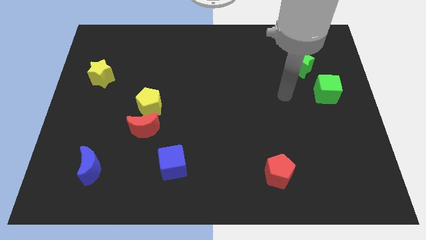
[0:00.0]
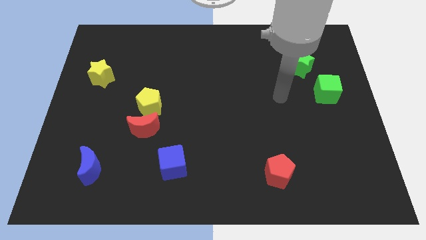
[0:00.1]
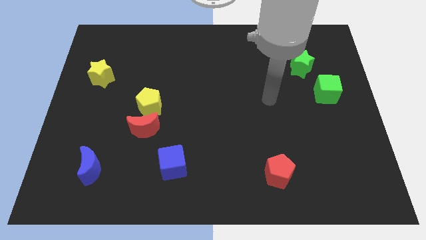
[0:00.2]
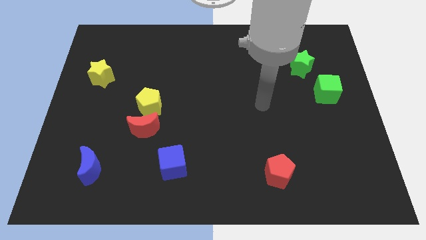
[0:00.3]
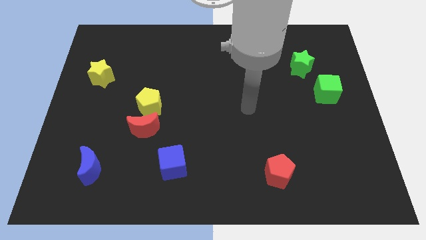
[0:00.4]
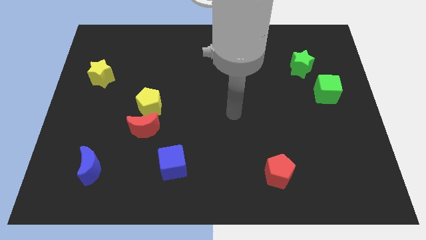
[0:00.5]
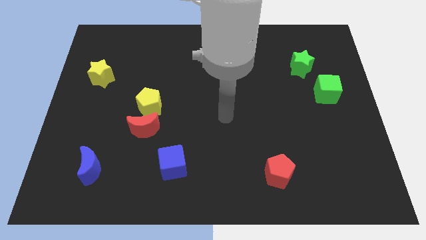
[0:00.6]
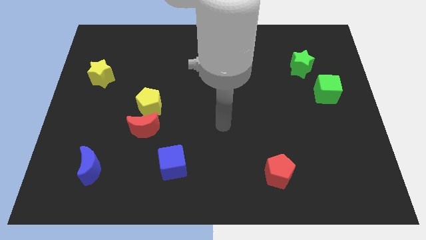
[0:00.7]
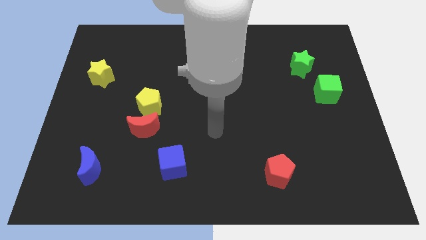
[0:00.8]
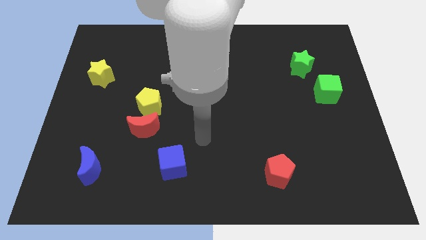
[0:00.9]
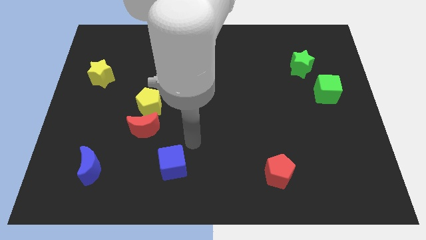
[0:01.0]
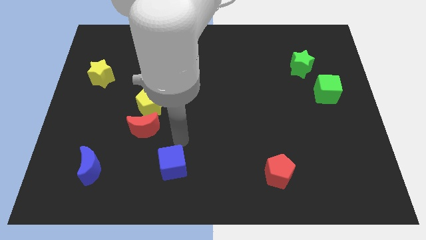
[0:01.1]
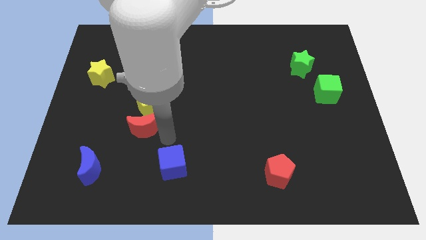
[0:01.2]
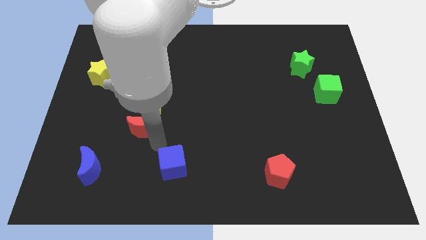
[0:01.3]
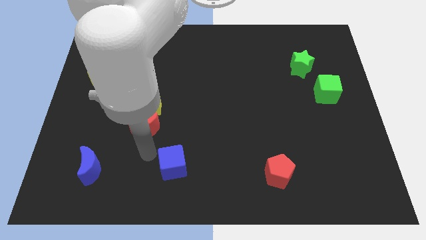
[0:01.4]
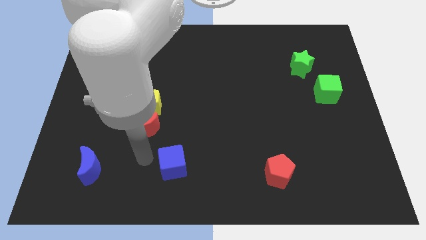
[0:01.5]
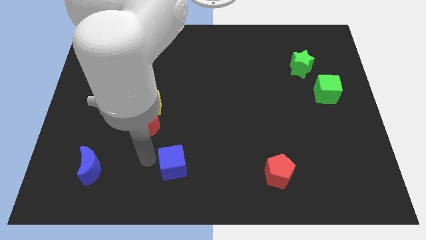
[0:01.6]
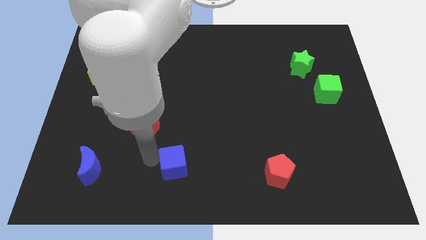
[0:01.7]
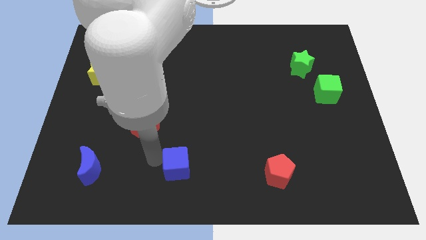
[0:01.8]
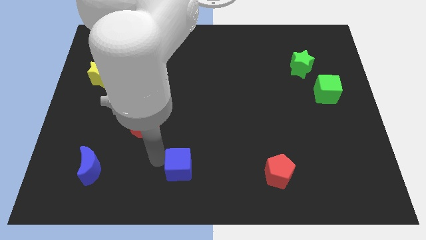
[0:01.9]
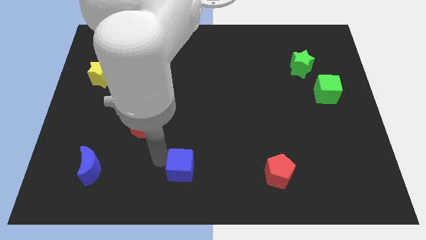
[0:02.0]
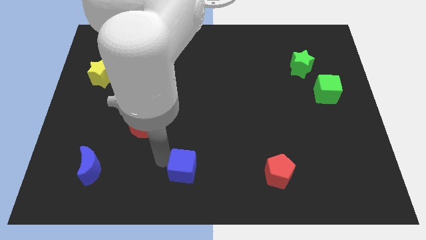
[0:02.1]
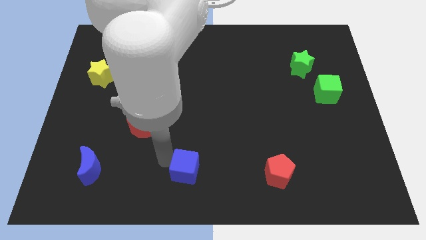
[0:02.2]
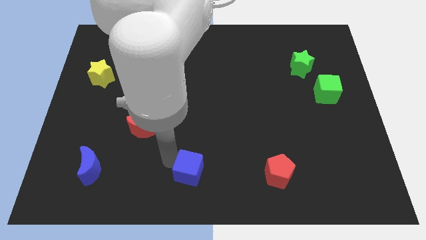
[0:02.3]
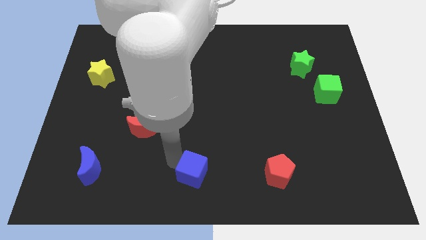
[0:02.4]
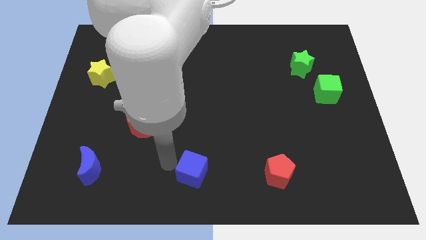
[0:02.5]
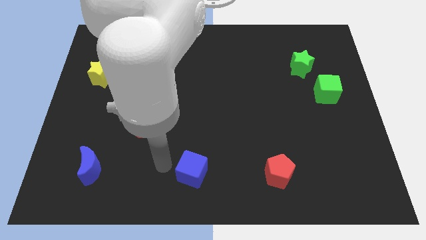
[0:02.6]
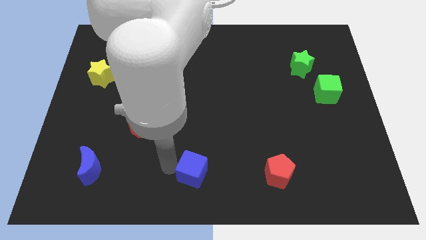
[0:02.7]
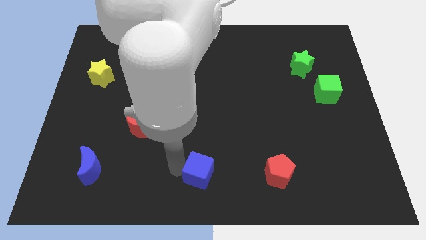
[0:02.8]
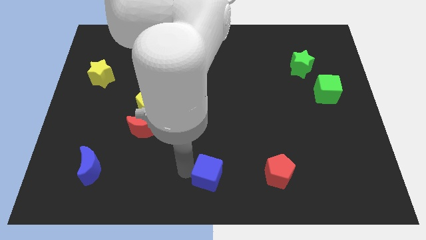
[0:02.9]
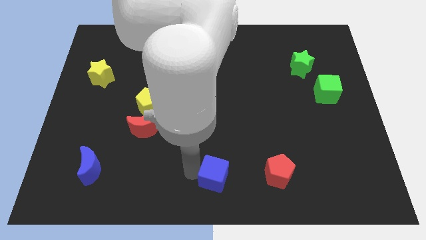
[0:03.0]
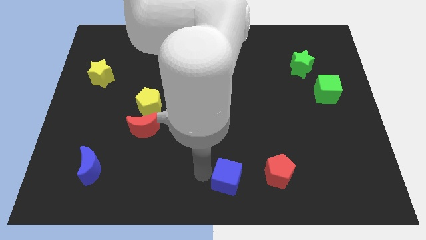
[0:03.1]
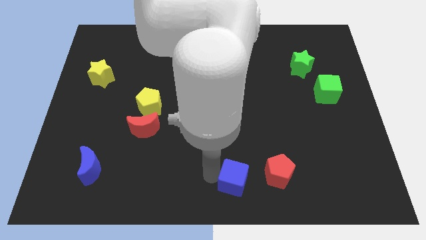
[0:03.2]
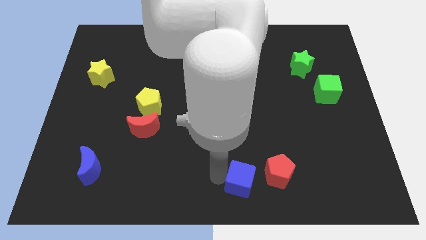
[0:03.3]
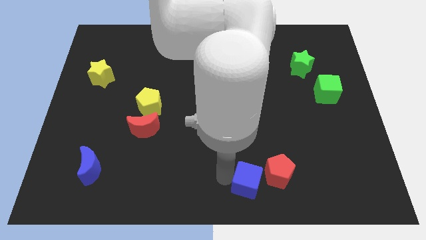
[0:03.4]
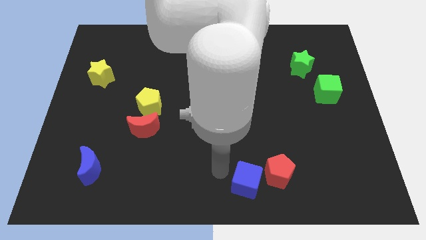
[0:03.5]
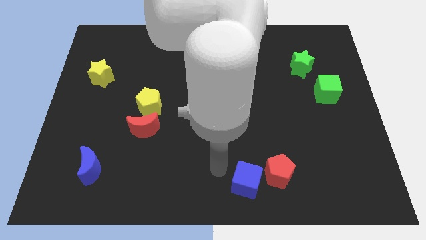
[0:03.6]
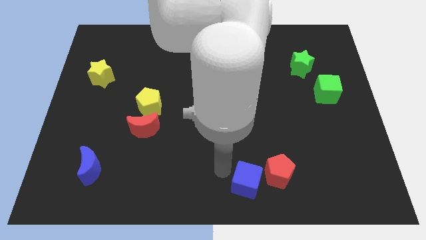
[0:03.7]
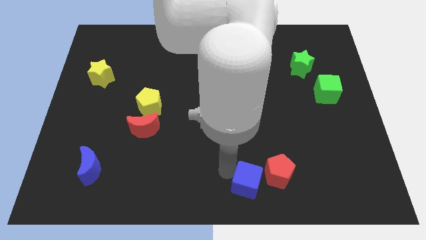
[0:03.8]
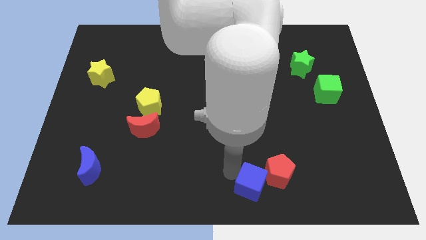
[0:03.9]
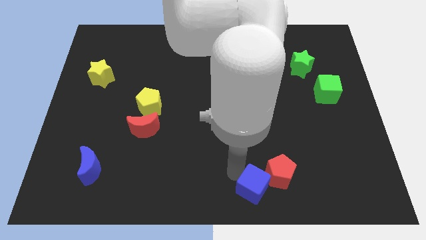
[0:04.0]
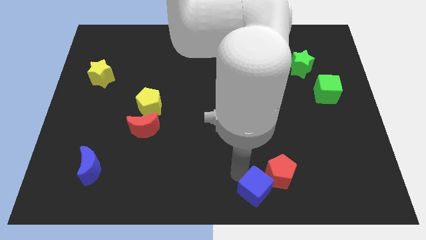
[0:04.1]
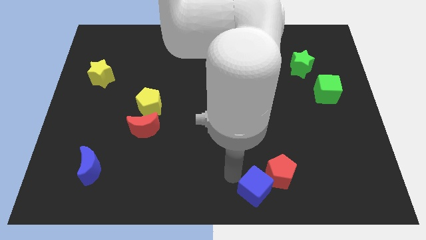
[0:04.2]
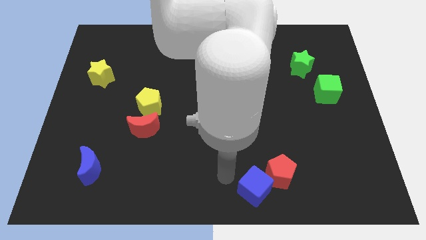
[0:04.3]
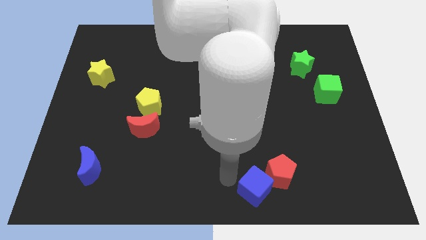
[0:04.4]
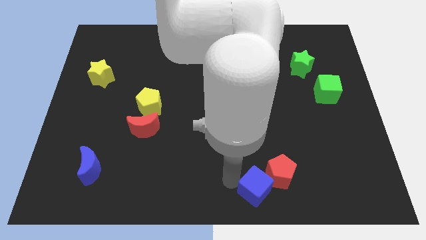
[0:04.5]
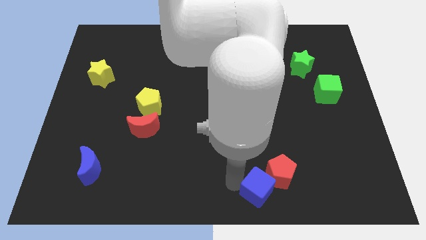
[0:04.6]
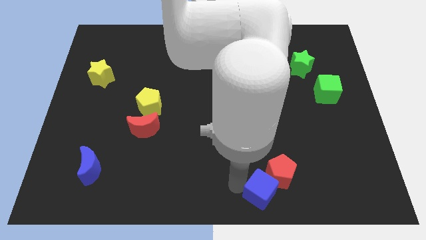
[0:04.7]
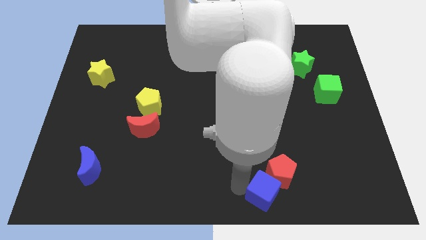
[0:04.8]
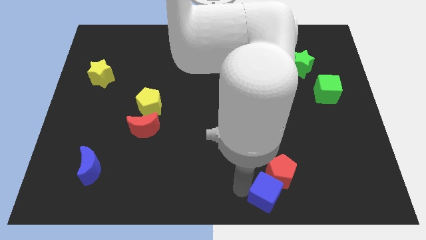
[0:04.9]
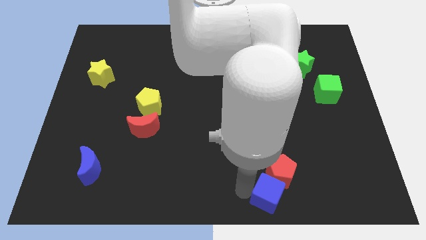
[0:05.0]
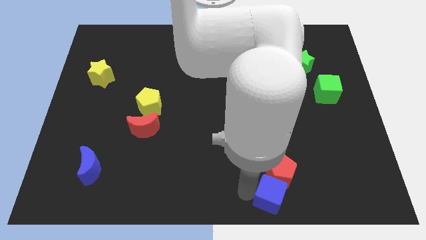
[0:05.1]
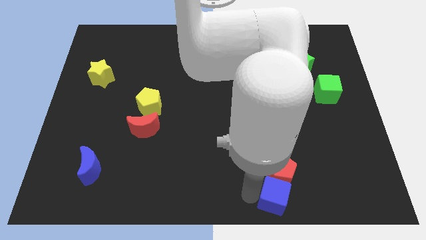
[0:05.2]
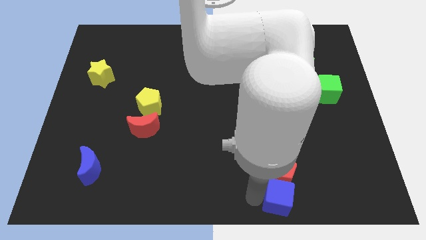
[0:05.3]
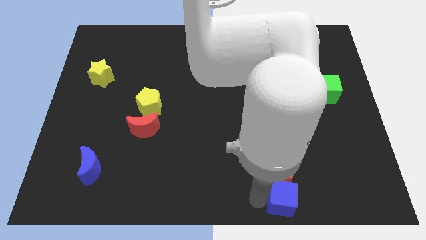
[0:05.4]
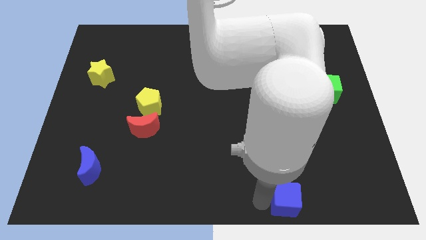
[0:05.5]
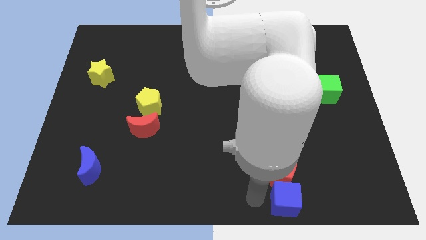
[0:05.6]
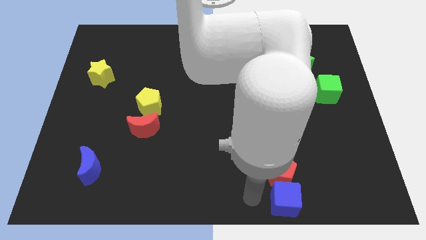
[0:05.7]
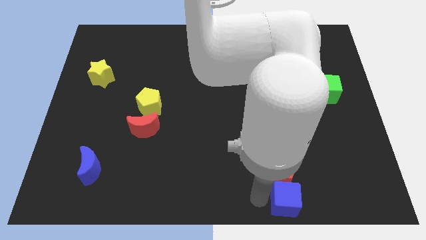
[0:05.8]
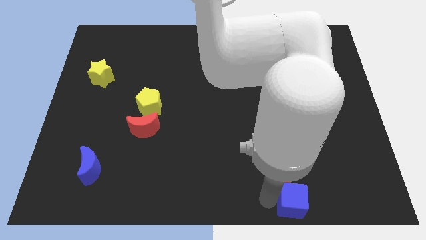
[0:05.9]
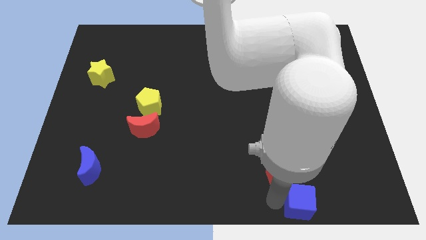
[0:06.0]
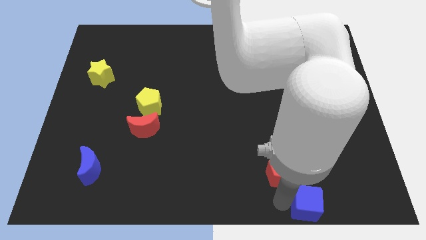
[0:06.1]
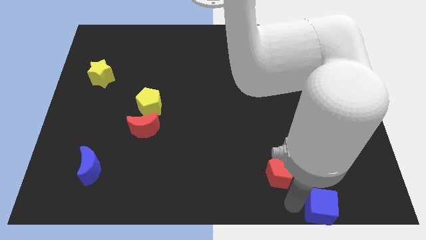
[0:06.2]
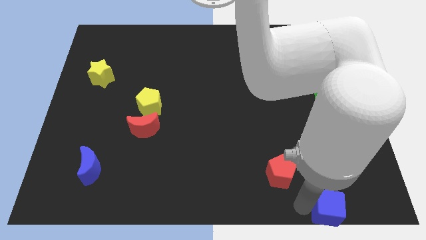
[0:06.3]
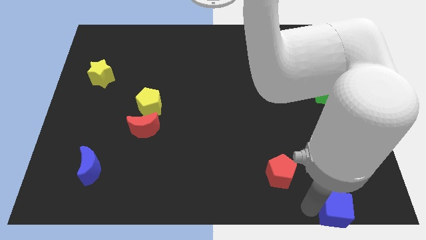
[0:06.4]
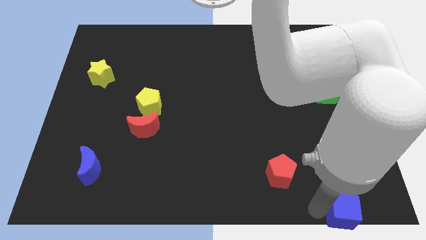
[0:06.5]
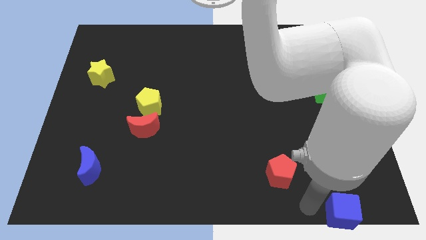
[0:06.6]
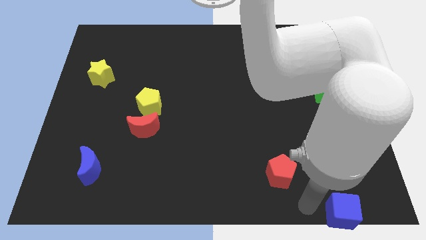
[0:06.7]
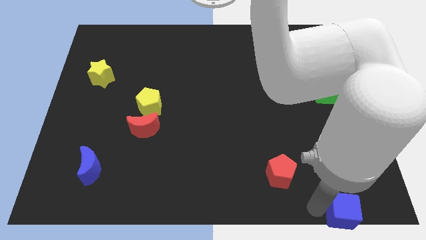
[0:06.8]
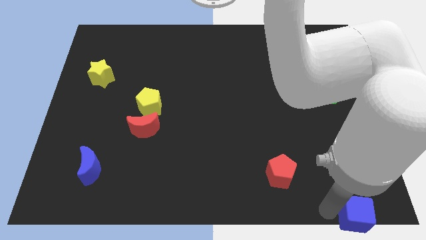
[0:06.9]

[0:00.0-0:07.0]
slide the blue cube to the bottom right corner

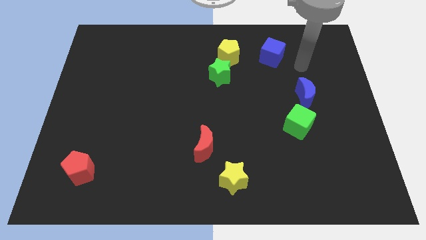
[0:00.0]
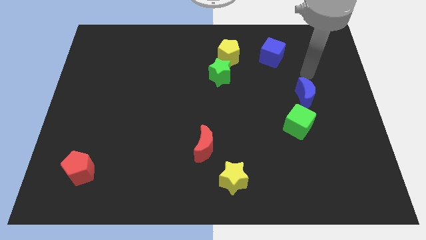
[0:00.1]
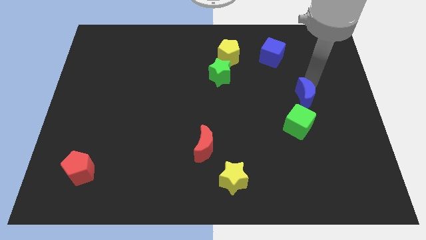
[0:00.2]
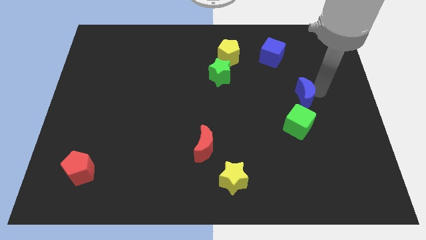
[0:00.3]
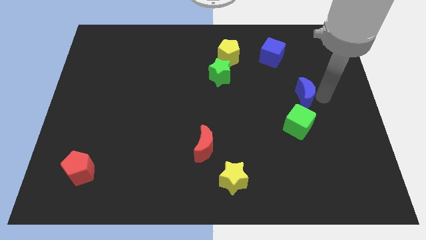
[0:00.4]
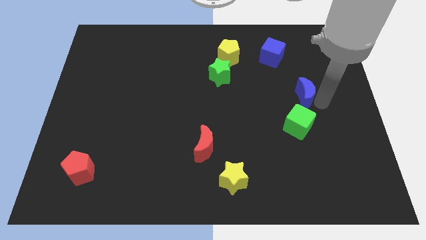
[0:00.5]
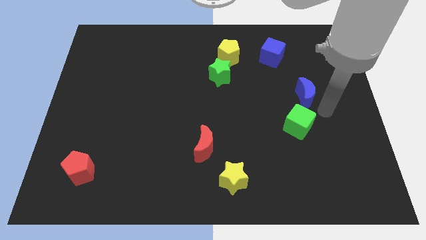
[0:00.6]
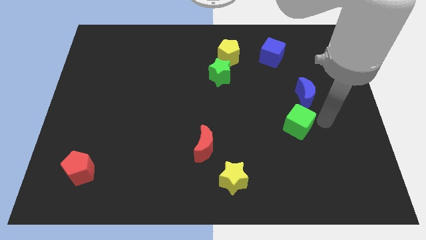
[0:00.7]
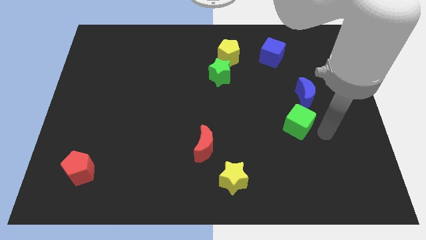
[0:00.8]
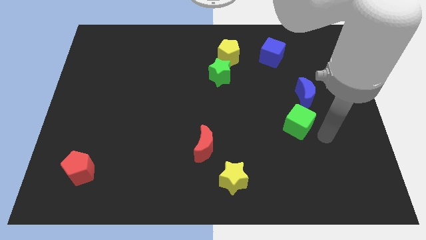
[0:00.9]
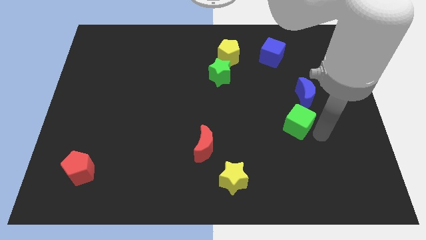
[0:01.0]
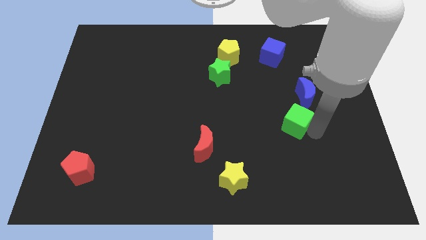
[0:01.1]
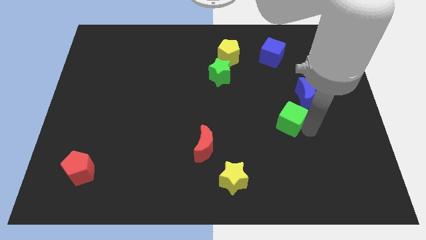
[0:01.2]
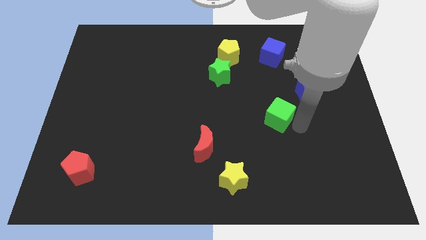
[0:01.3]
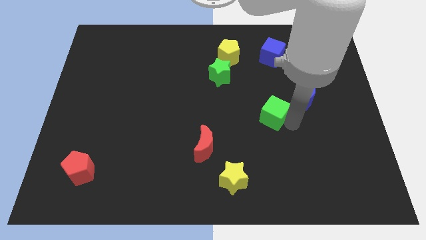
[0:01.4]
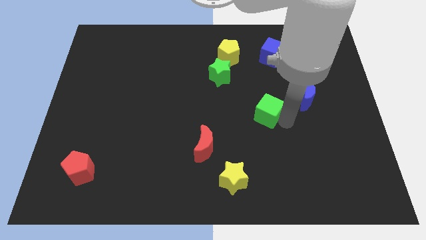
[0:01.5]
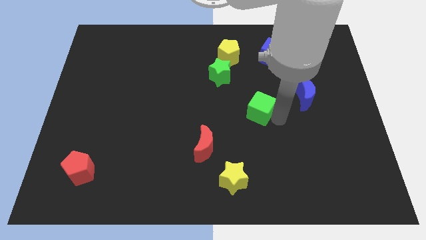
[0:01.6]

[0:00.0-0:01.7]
put the green cube to the center
